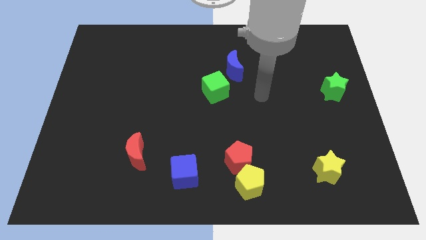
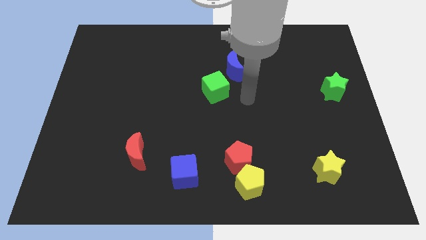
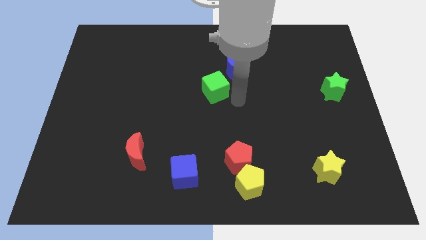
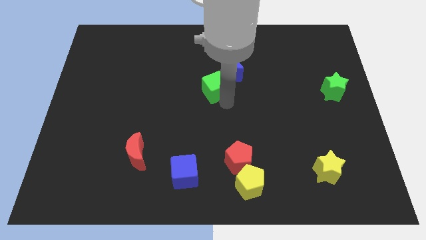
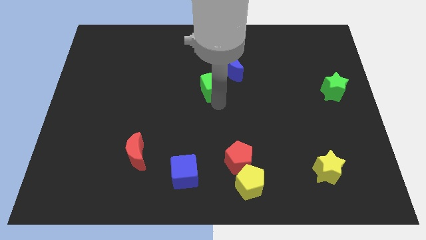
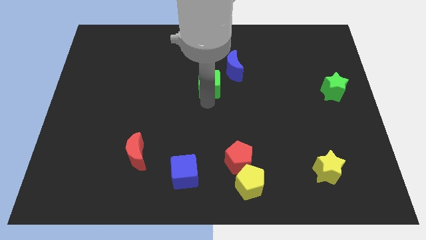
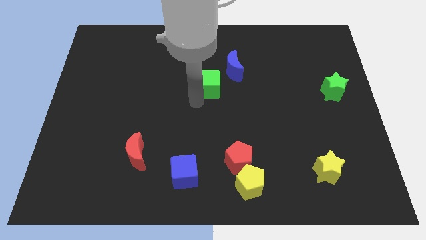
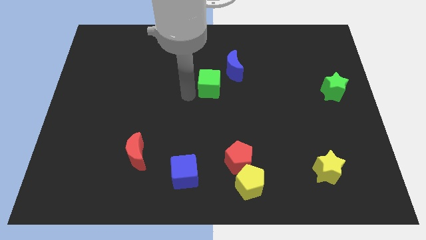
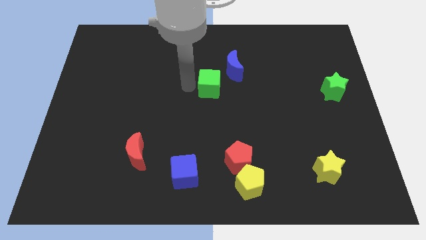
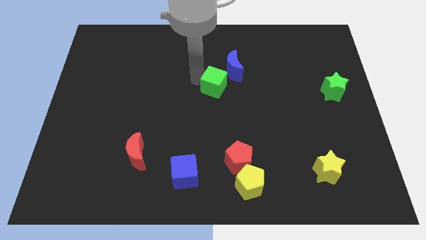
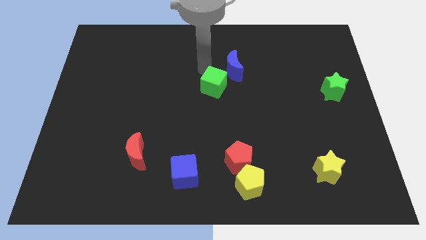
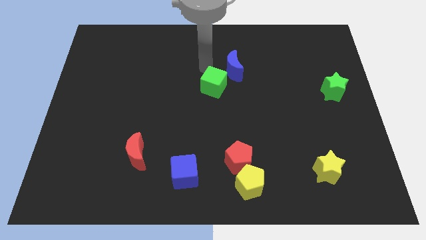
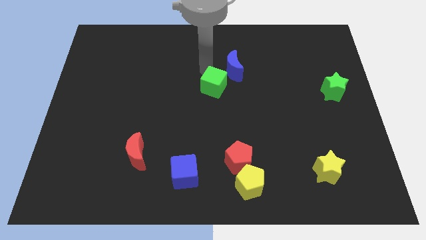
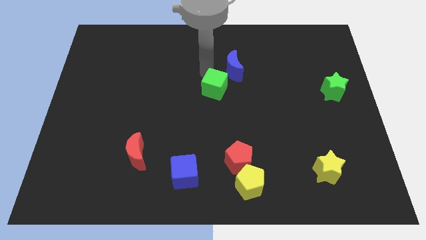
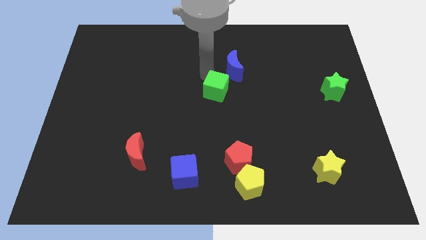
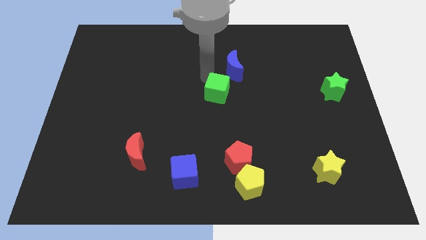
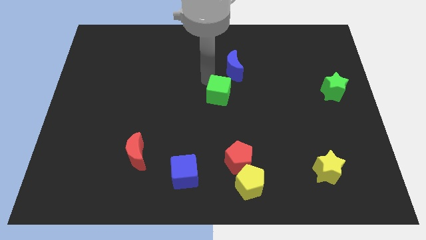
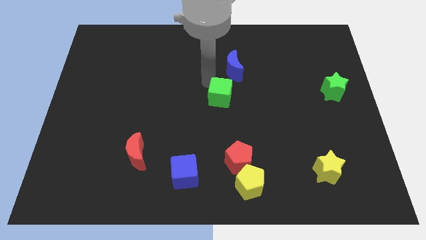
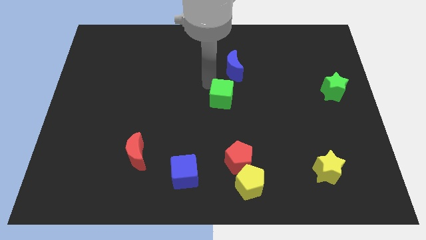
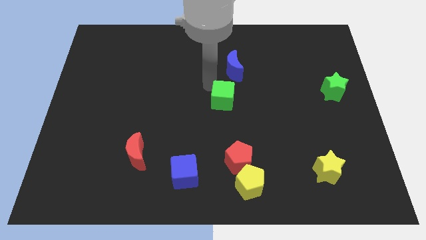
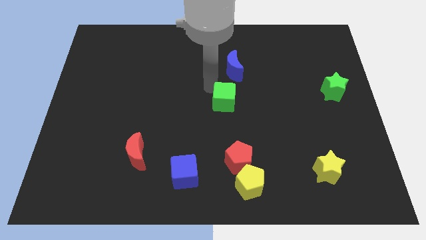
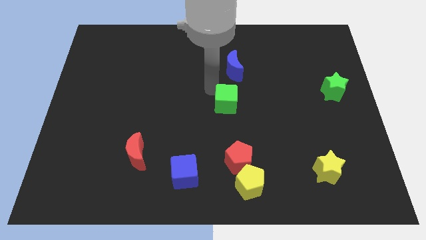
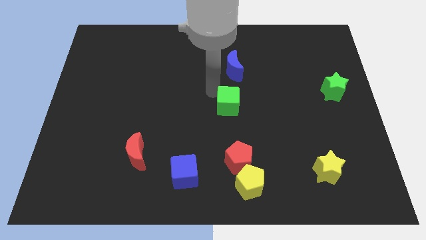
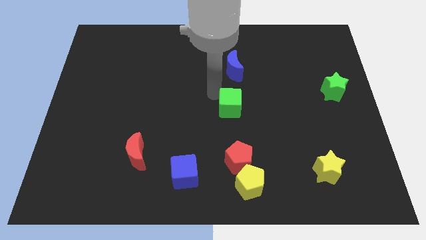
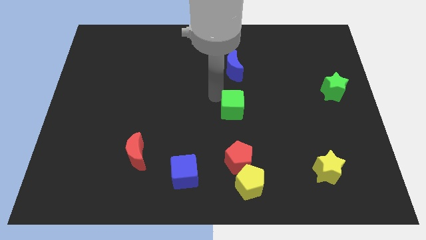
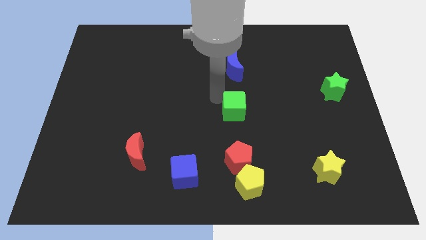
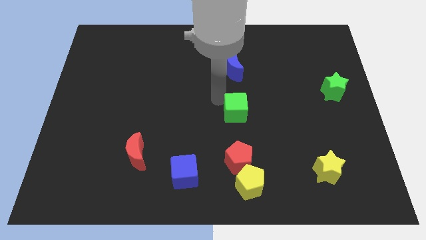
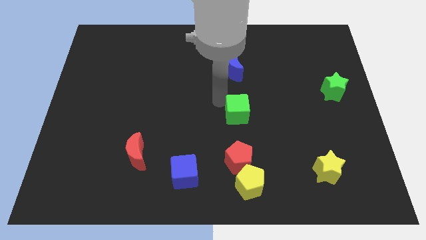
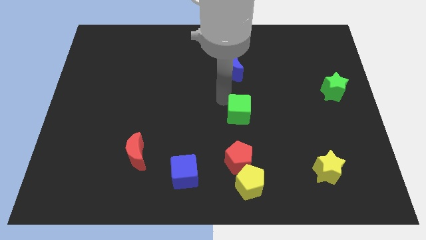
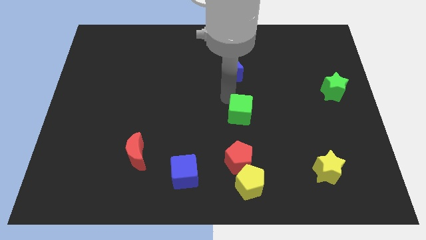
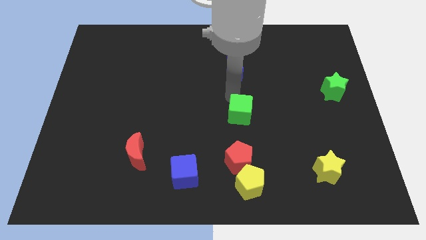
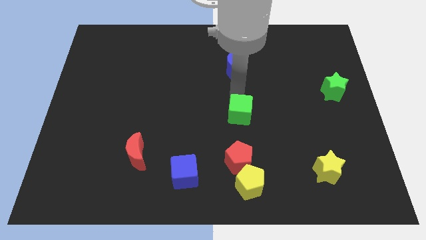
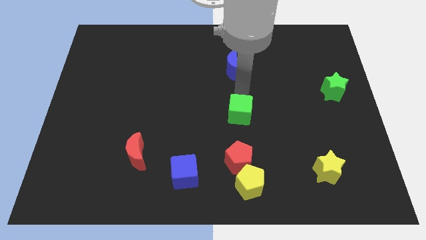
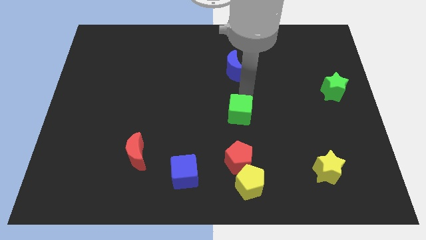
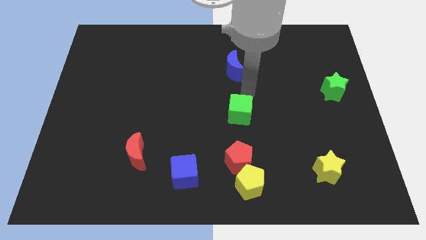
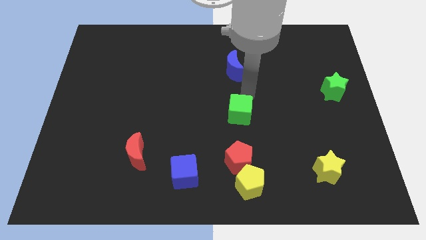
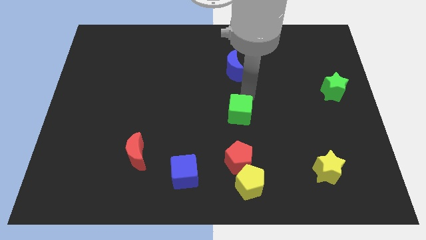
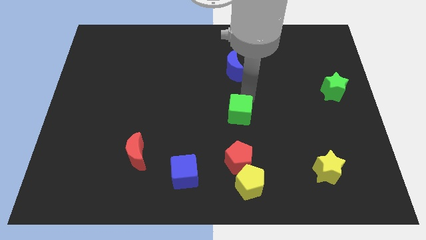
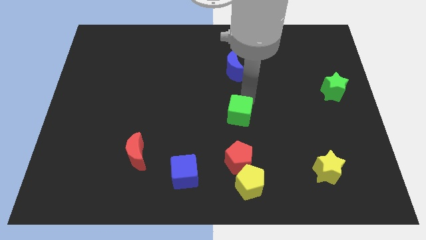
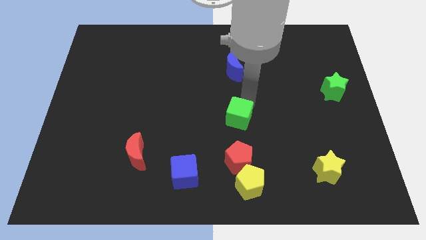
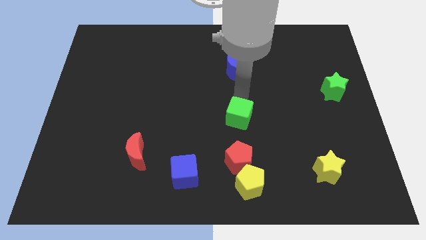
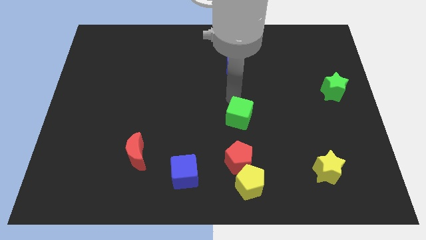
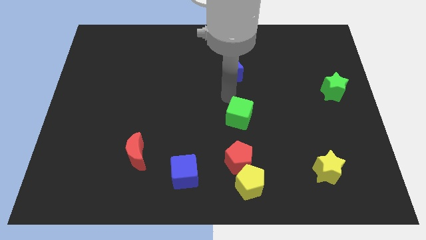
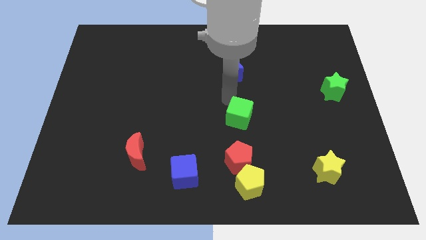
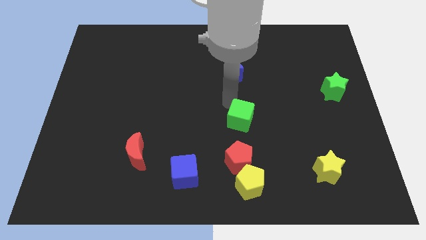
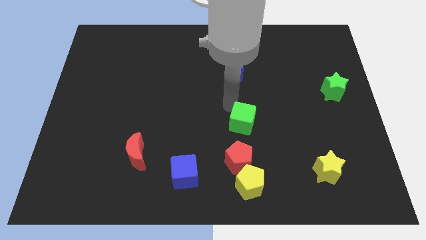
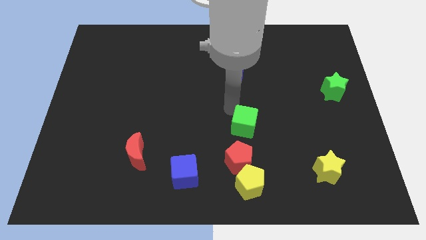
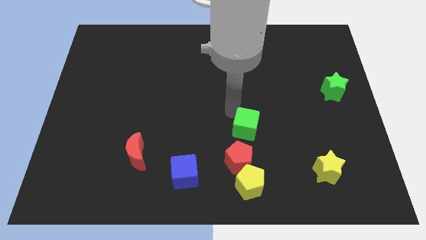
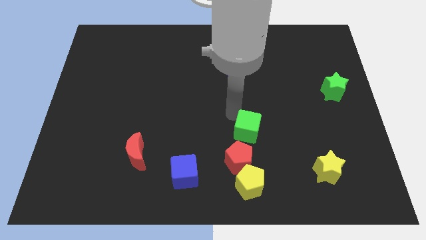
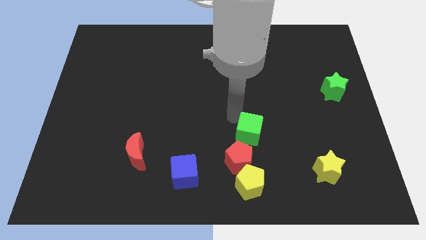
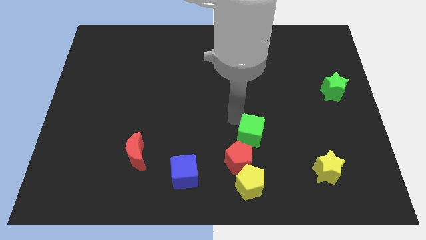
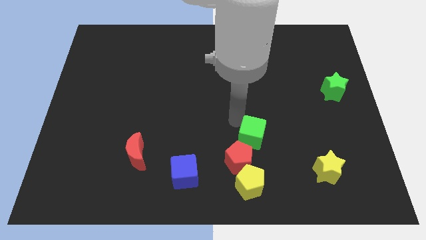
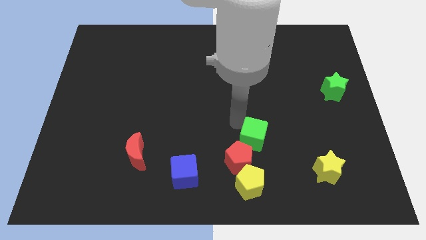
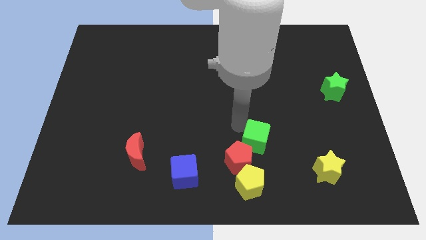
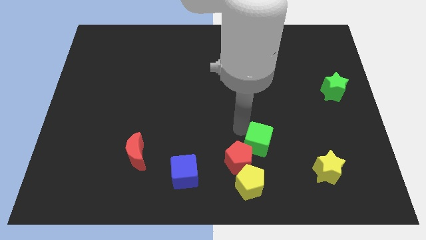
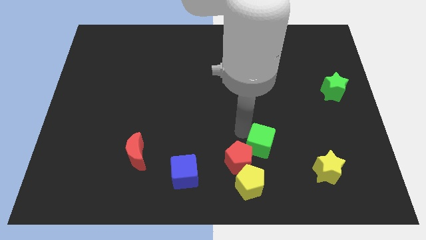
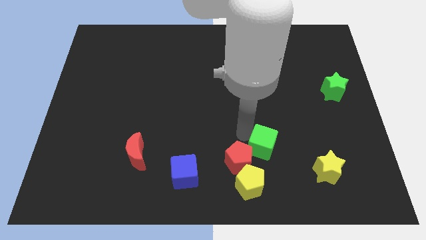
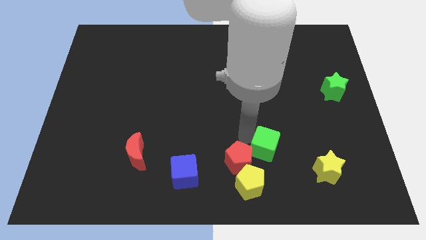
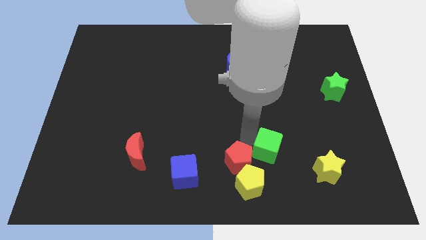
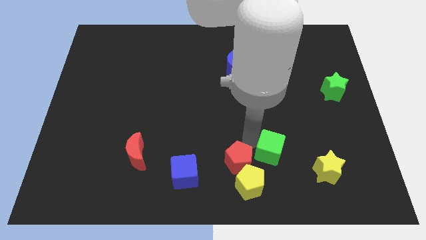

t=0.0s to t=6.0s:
slide the green cube just left of the yellow star
